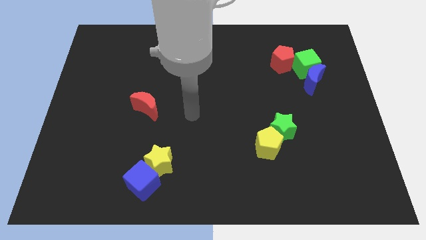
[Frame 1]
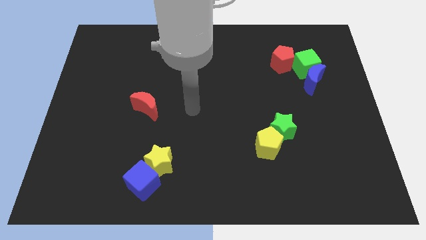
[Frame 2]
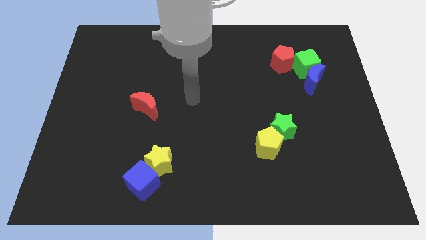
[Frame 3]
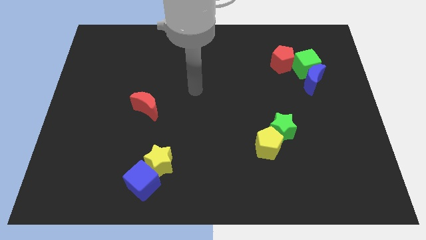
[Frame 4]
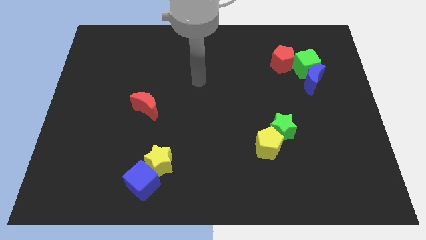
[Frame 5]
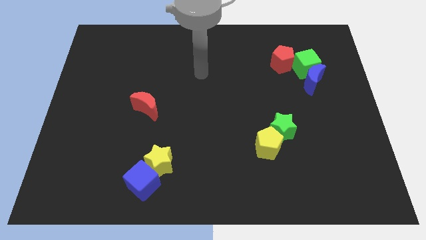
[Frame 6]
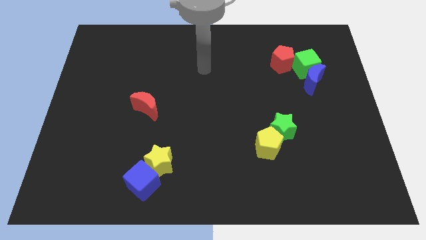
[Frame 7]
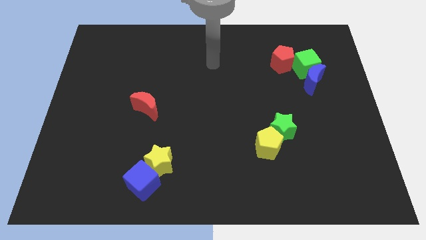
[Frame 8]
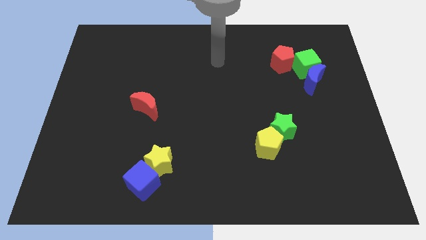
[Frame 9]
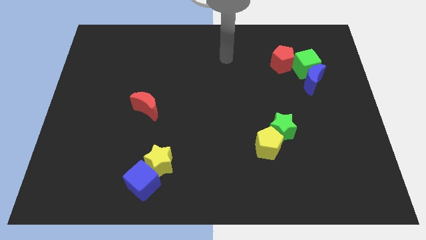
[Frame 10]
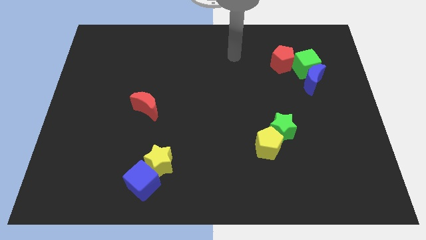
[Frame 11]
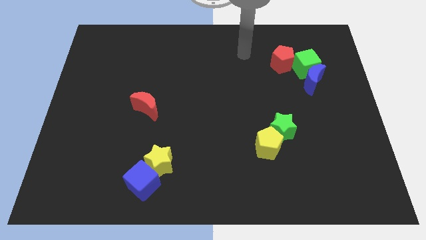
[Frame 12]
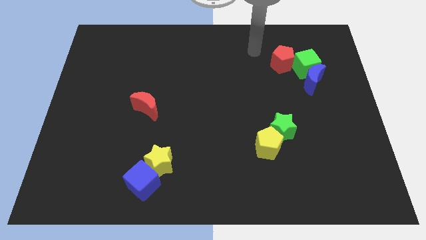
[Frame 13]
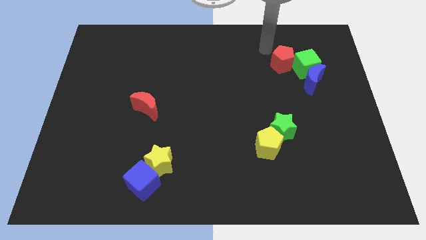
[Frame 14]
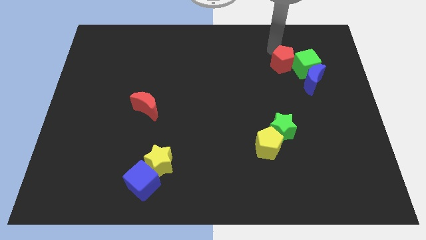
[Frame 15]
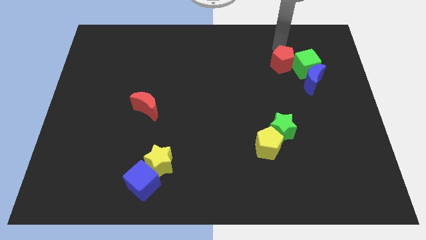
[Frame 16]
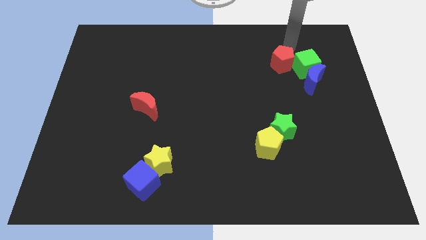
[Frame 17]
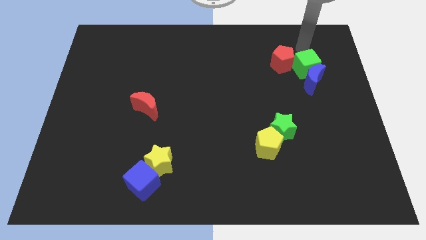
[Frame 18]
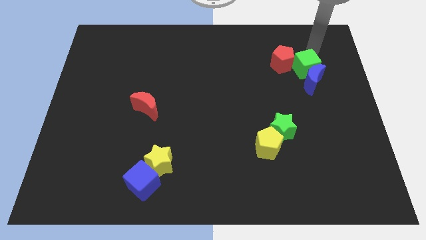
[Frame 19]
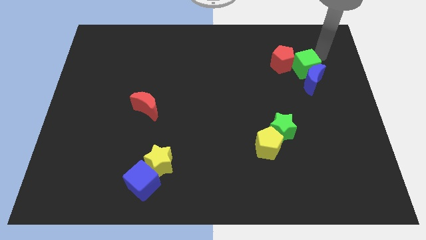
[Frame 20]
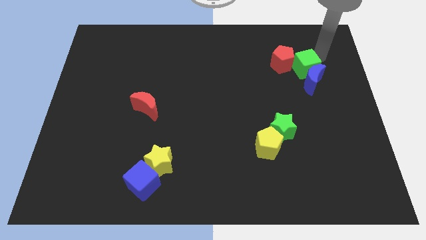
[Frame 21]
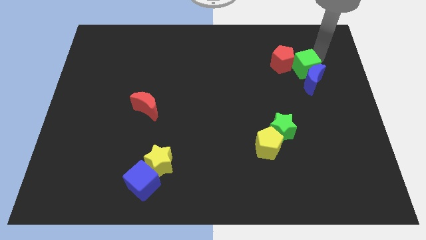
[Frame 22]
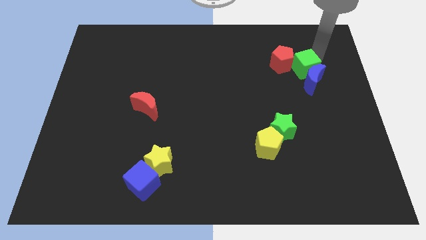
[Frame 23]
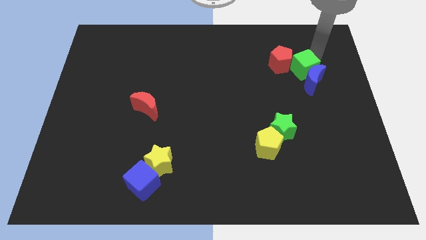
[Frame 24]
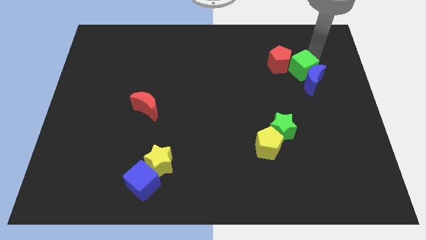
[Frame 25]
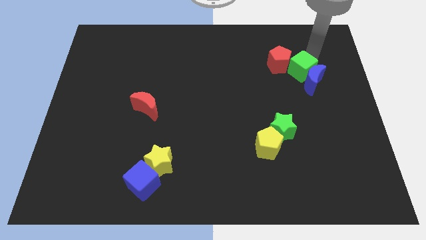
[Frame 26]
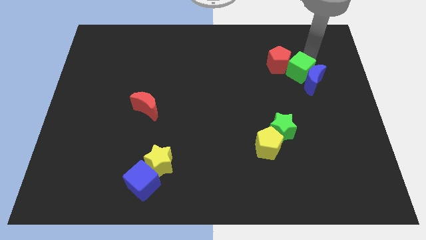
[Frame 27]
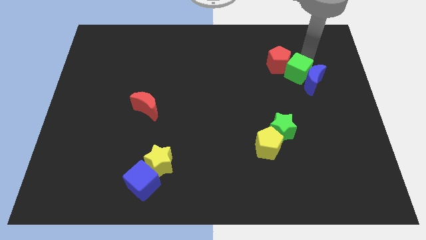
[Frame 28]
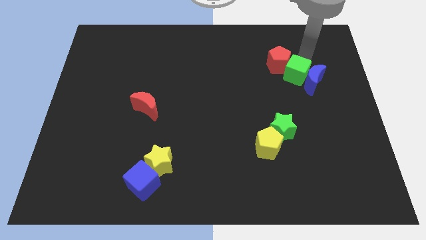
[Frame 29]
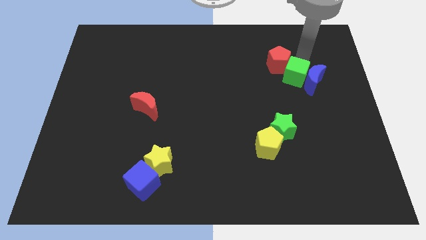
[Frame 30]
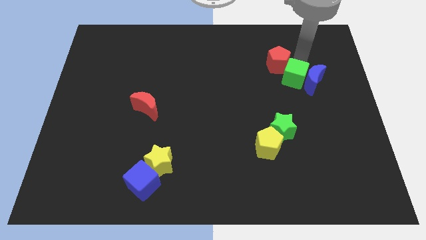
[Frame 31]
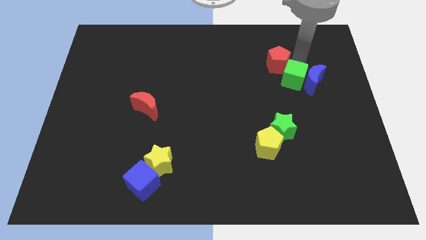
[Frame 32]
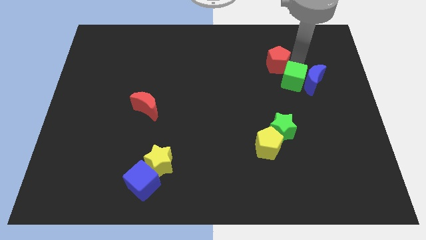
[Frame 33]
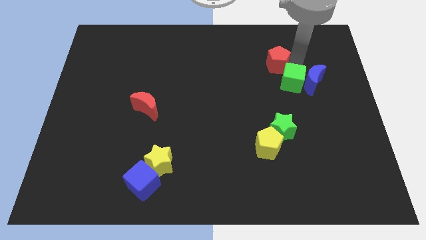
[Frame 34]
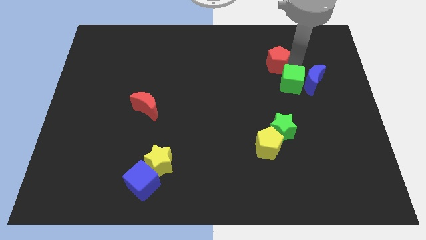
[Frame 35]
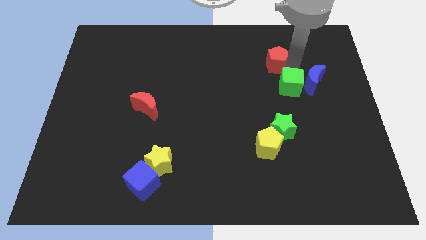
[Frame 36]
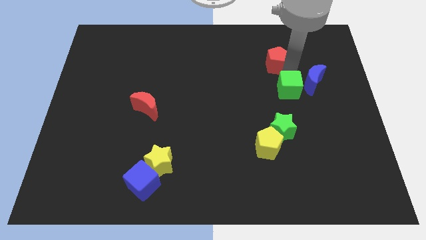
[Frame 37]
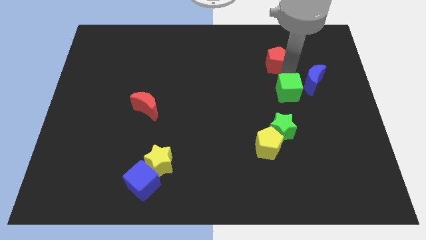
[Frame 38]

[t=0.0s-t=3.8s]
push the green cube a little downwards

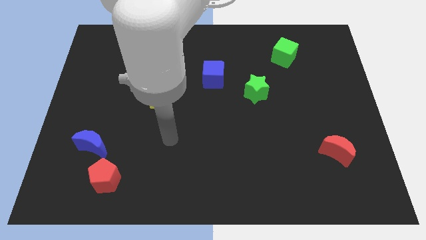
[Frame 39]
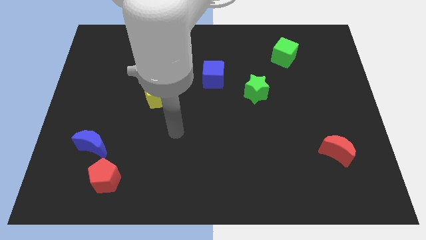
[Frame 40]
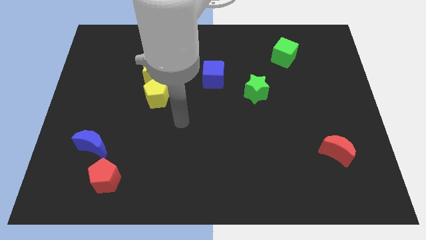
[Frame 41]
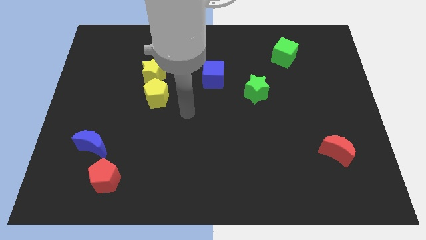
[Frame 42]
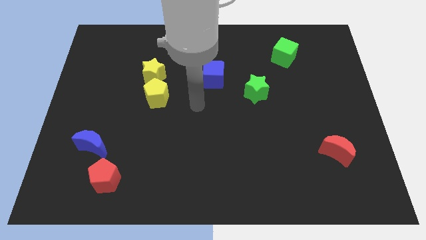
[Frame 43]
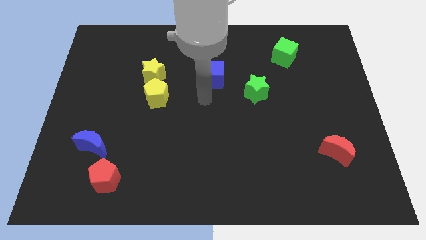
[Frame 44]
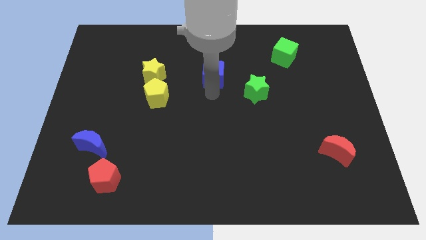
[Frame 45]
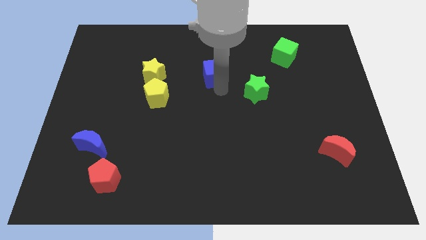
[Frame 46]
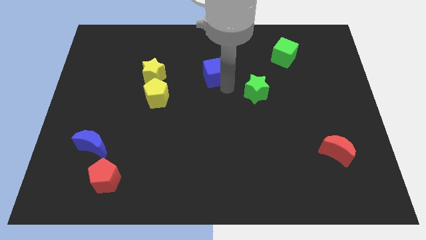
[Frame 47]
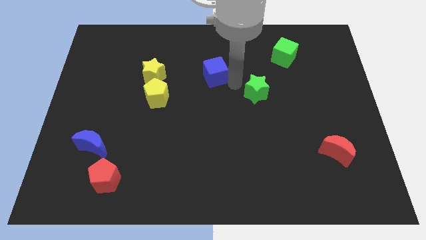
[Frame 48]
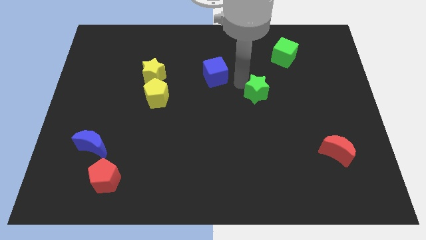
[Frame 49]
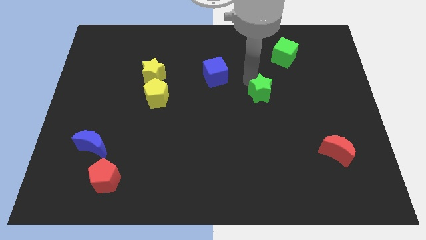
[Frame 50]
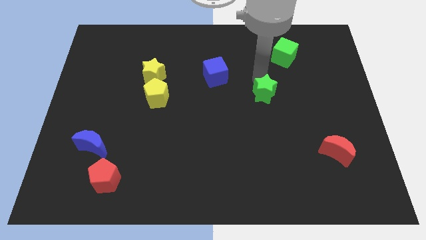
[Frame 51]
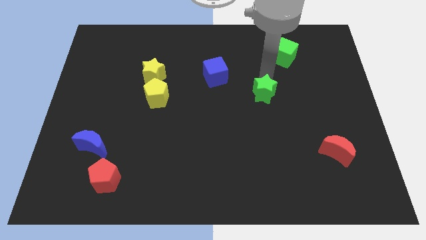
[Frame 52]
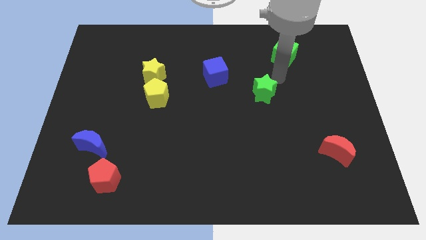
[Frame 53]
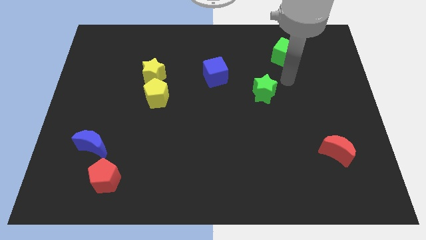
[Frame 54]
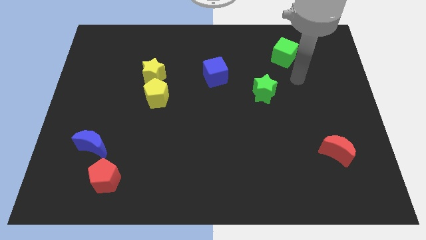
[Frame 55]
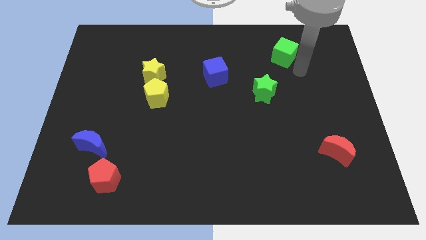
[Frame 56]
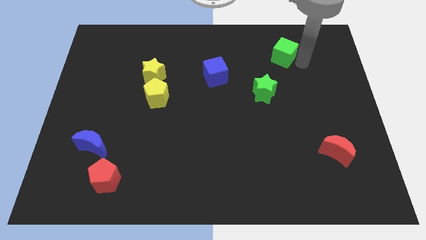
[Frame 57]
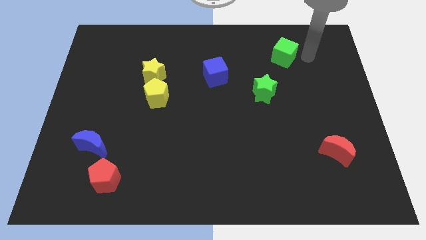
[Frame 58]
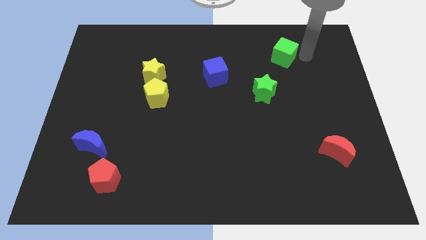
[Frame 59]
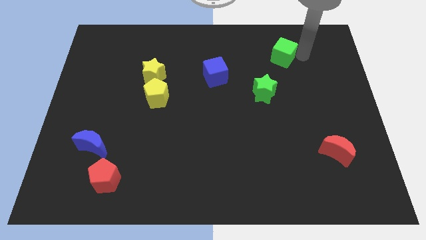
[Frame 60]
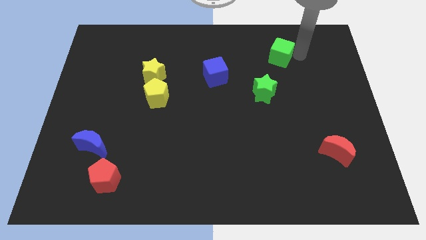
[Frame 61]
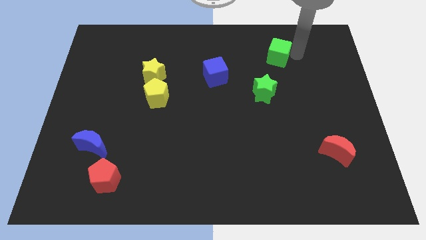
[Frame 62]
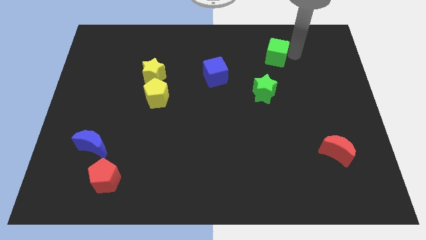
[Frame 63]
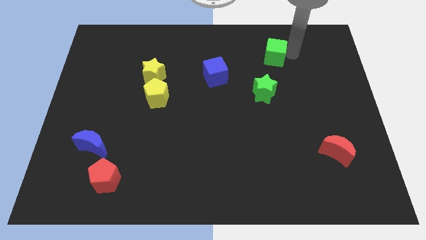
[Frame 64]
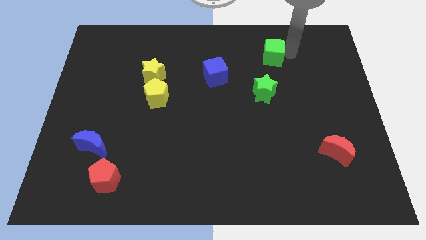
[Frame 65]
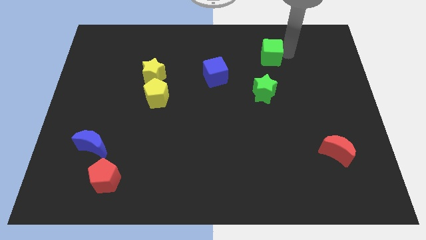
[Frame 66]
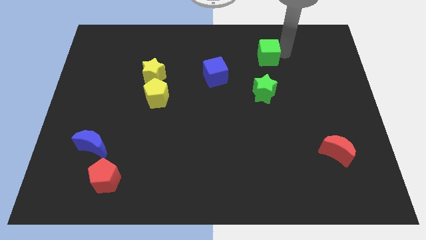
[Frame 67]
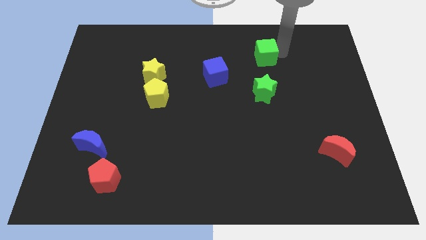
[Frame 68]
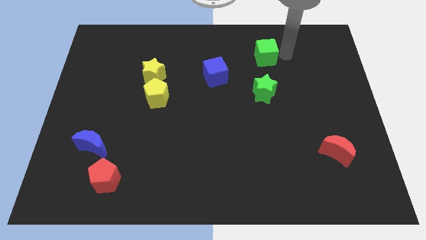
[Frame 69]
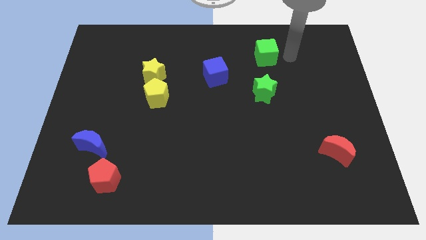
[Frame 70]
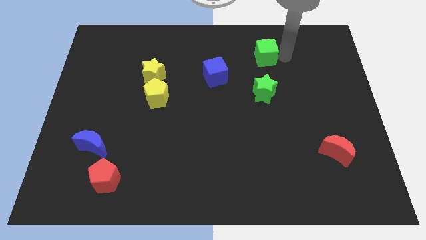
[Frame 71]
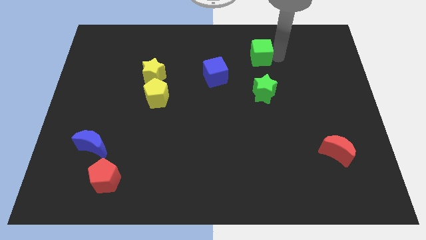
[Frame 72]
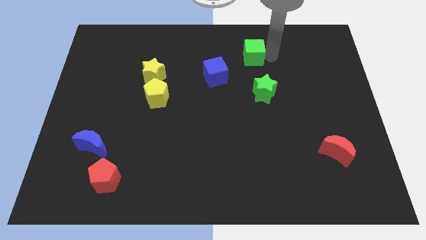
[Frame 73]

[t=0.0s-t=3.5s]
push the green cube a bit left

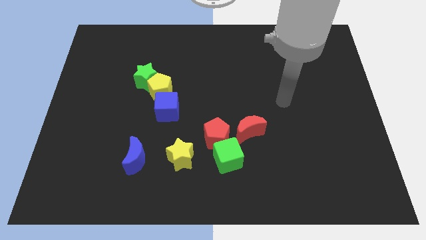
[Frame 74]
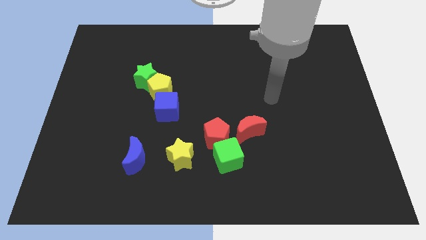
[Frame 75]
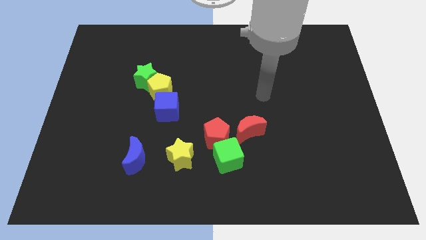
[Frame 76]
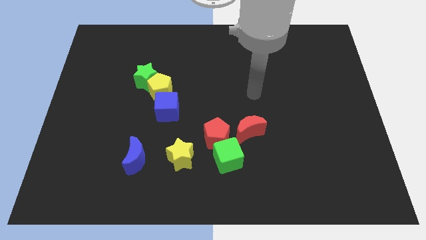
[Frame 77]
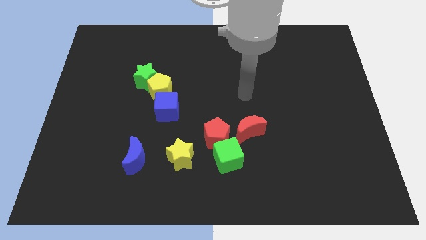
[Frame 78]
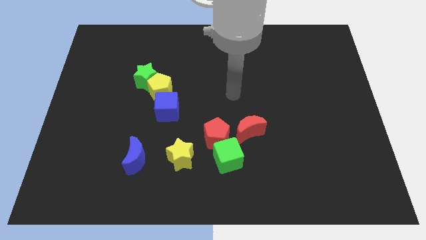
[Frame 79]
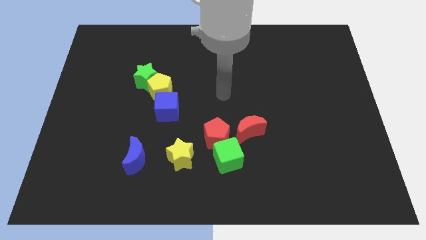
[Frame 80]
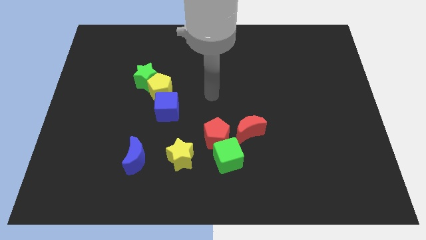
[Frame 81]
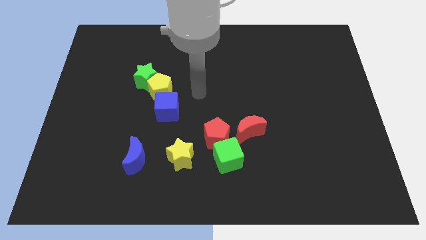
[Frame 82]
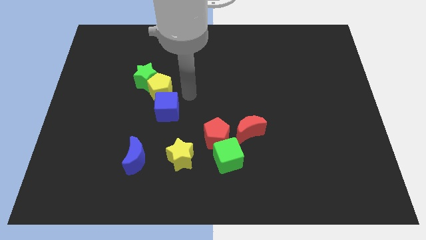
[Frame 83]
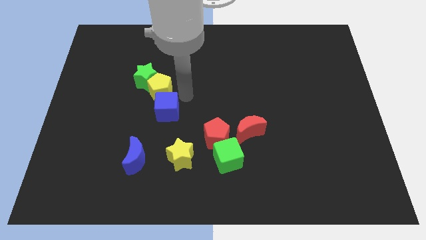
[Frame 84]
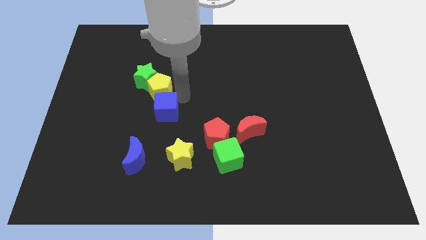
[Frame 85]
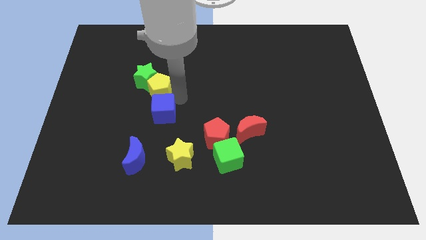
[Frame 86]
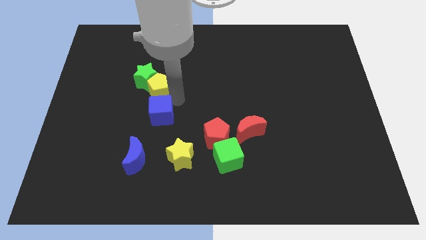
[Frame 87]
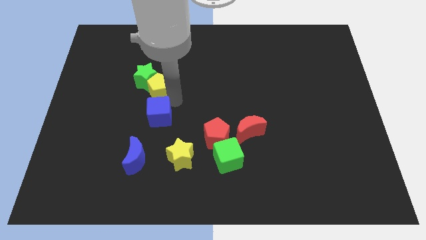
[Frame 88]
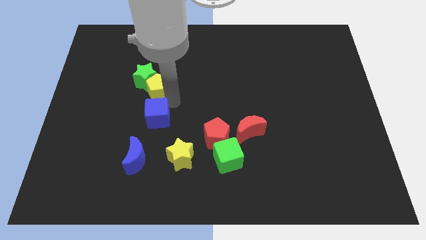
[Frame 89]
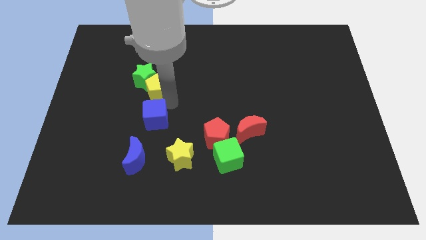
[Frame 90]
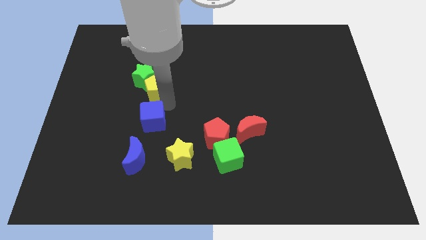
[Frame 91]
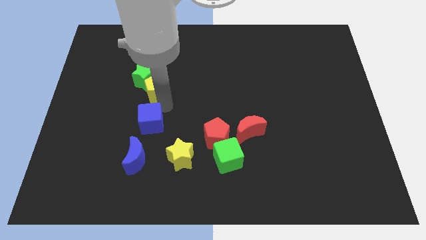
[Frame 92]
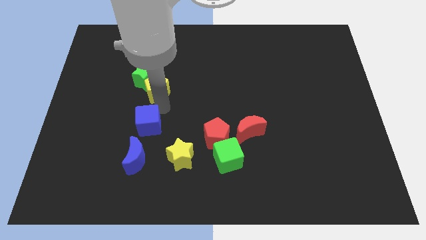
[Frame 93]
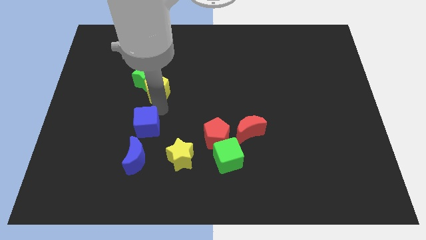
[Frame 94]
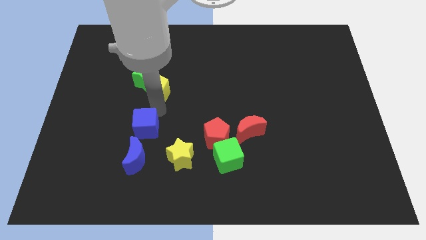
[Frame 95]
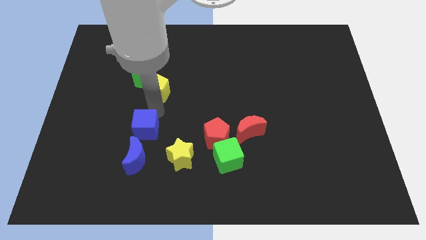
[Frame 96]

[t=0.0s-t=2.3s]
slide the blue cube slightly down and to the left
